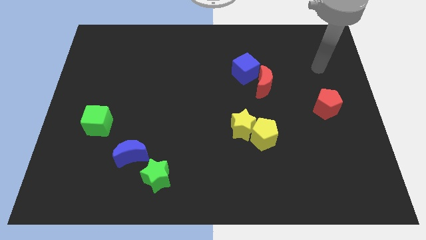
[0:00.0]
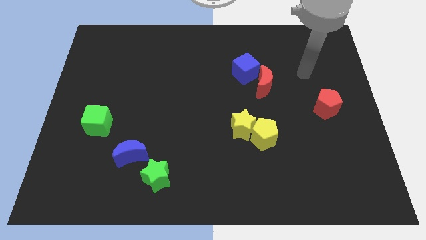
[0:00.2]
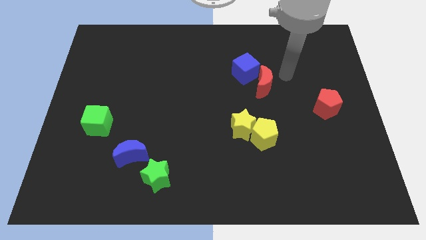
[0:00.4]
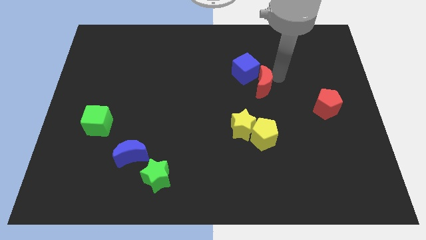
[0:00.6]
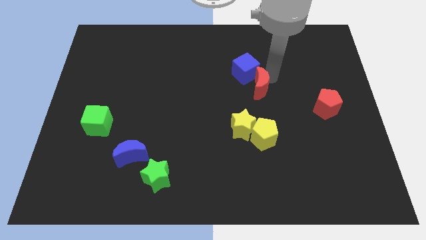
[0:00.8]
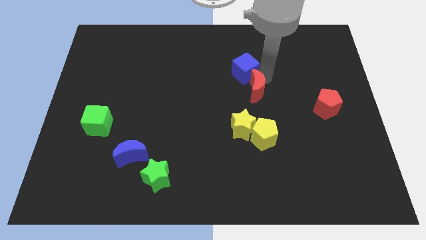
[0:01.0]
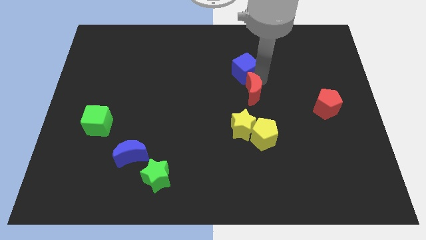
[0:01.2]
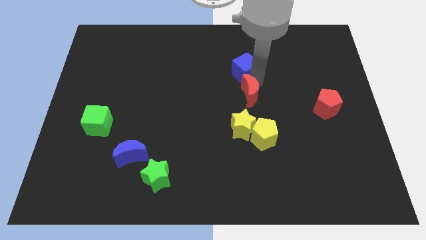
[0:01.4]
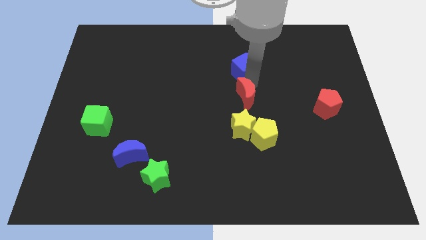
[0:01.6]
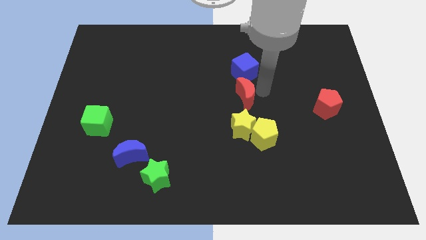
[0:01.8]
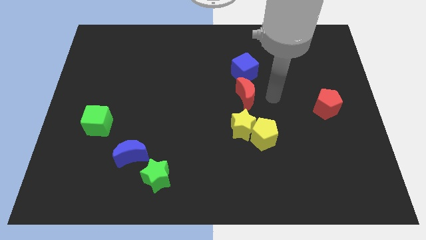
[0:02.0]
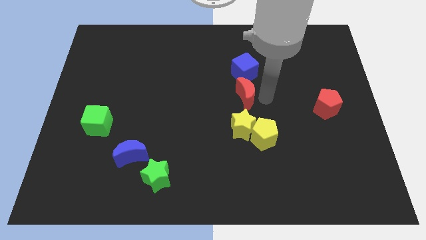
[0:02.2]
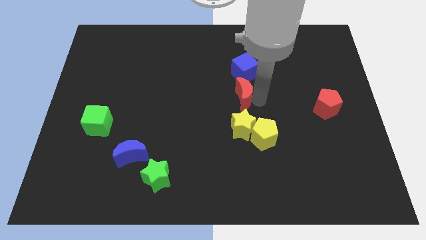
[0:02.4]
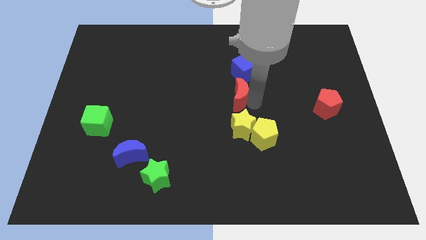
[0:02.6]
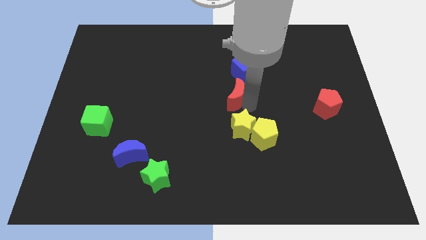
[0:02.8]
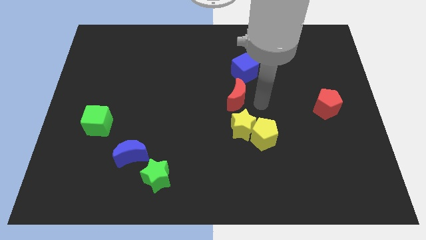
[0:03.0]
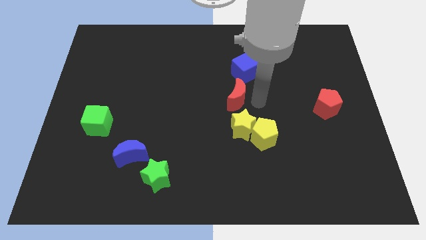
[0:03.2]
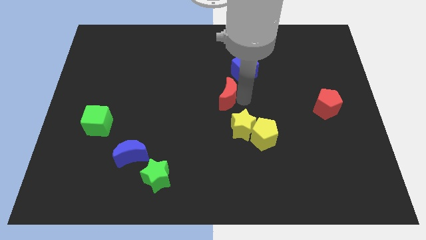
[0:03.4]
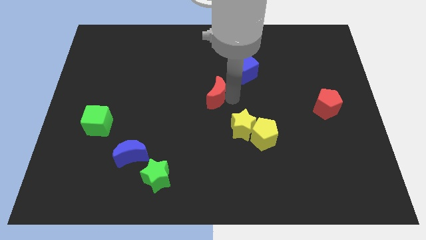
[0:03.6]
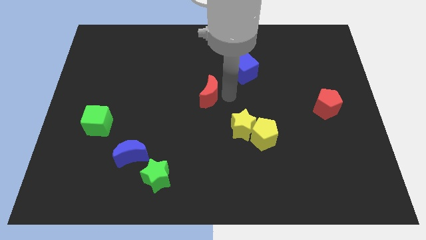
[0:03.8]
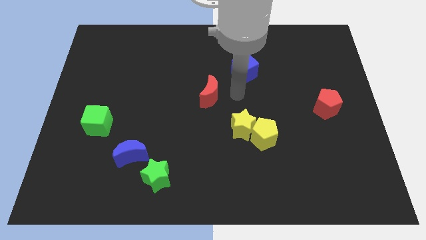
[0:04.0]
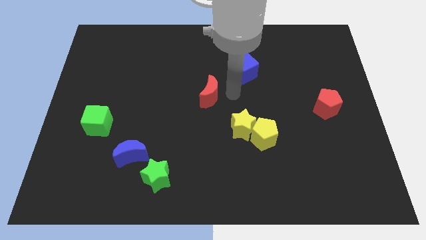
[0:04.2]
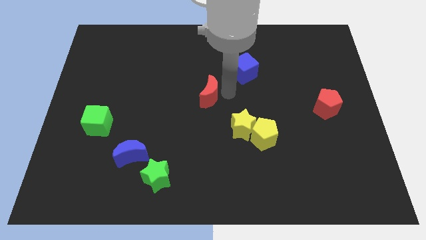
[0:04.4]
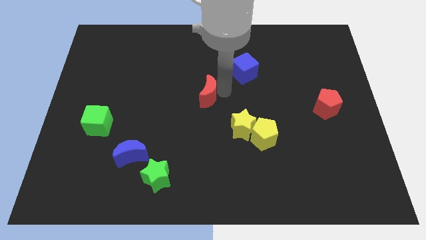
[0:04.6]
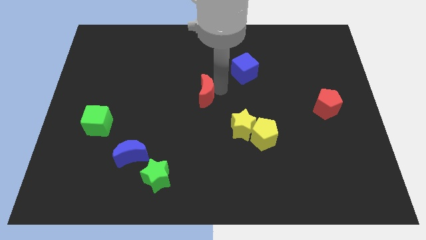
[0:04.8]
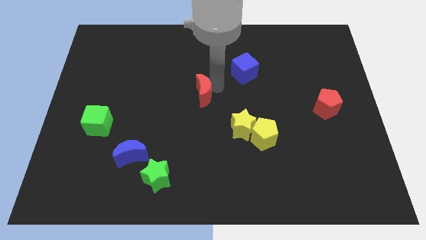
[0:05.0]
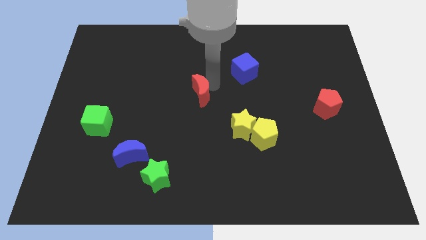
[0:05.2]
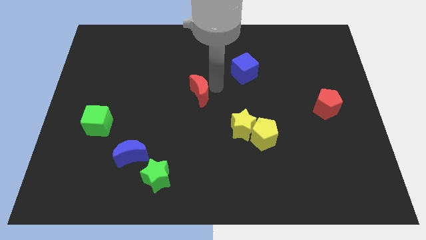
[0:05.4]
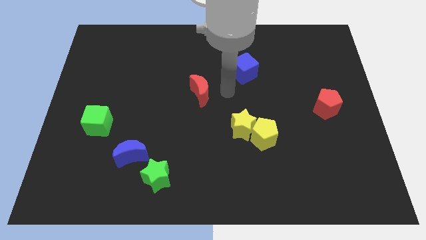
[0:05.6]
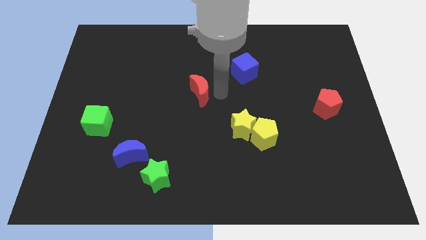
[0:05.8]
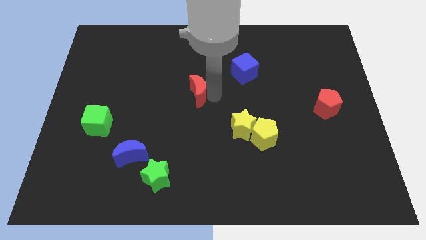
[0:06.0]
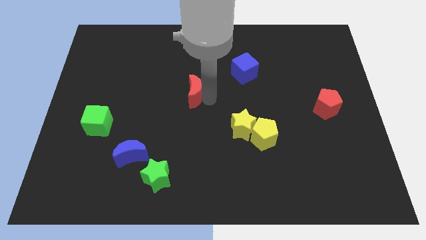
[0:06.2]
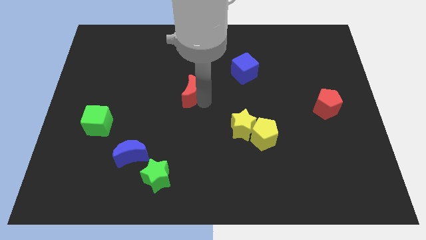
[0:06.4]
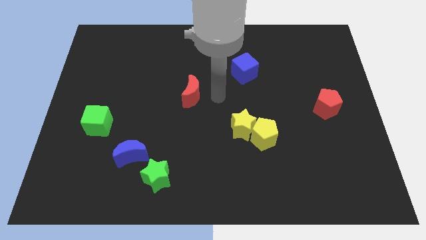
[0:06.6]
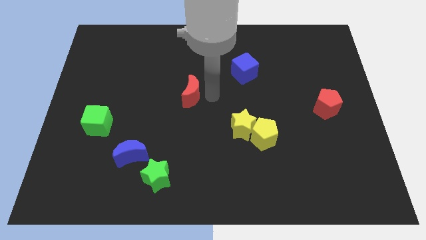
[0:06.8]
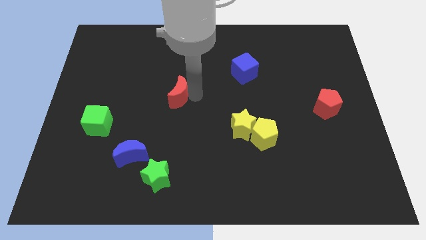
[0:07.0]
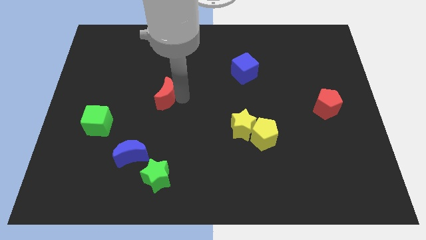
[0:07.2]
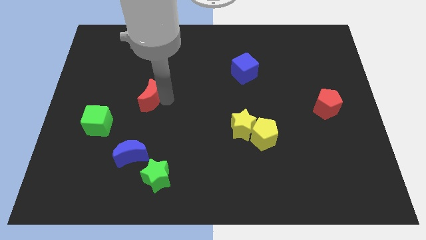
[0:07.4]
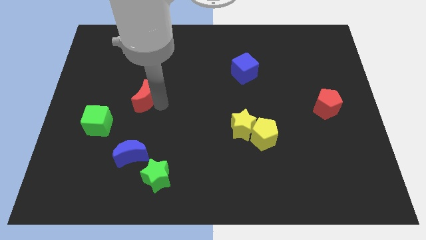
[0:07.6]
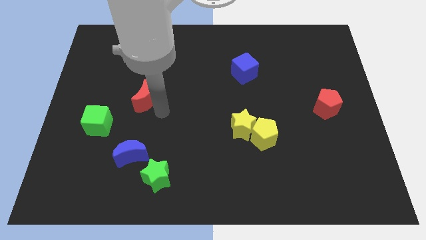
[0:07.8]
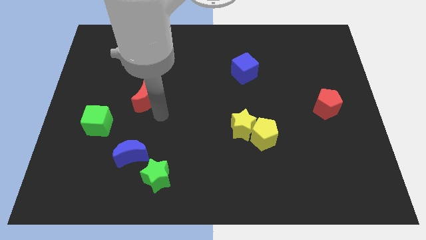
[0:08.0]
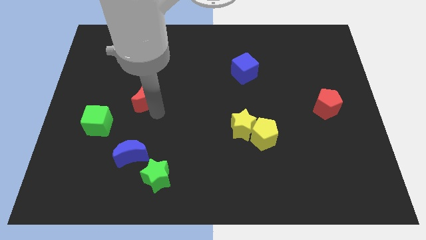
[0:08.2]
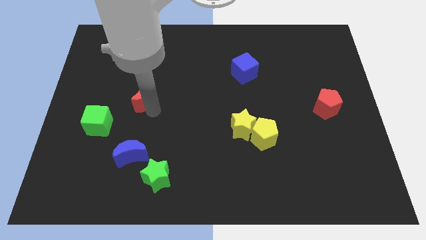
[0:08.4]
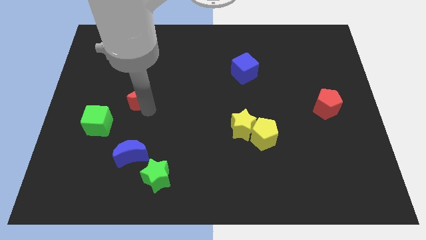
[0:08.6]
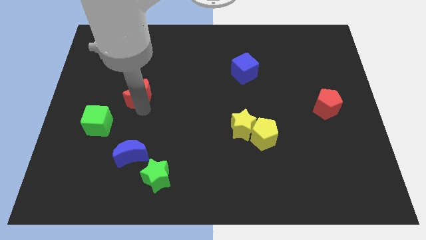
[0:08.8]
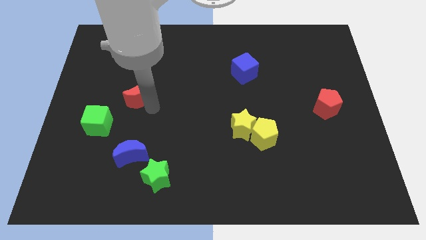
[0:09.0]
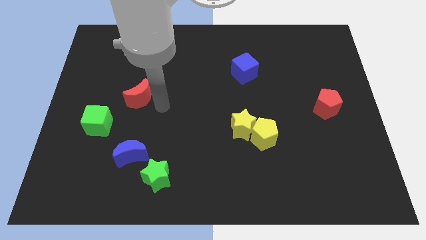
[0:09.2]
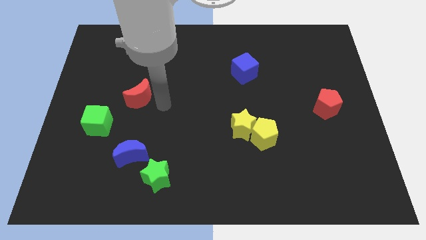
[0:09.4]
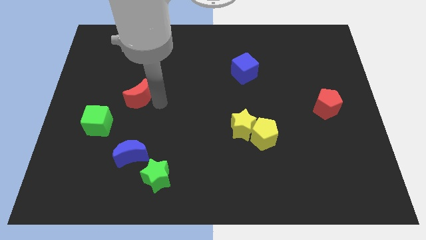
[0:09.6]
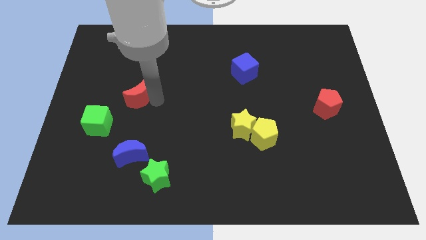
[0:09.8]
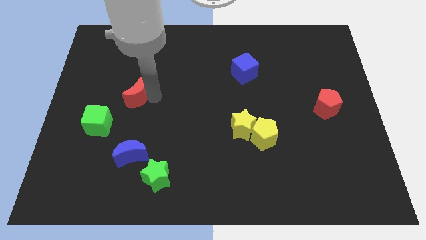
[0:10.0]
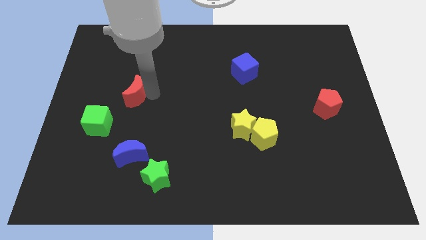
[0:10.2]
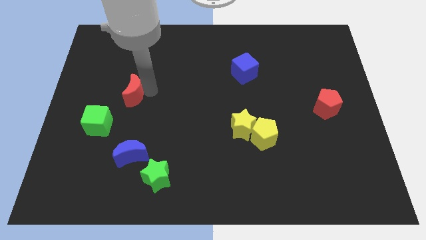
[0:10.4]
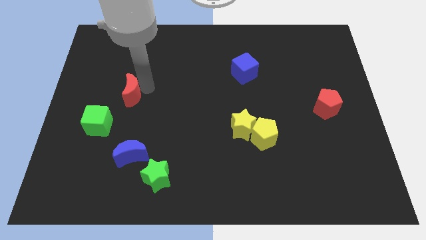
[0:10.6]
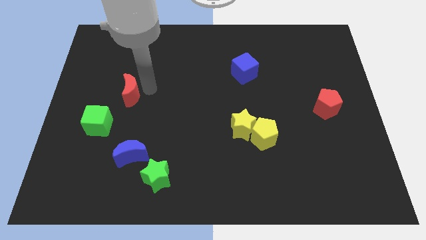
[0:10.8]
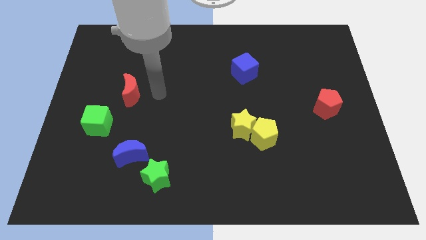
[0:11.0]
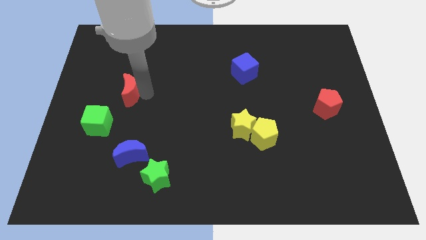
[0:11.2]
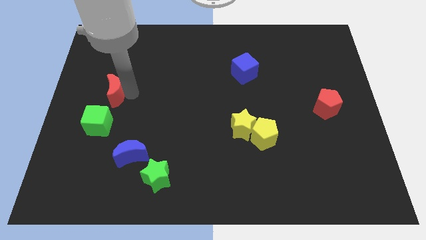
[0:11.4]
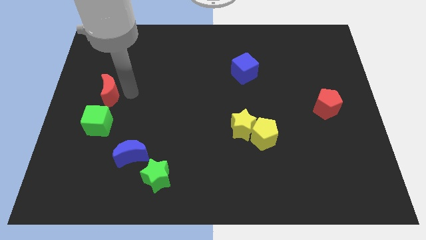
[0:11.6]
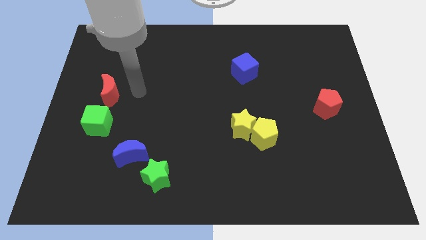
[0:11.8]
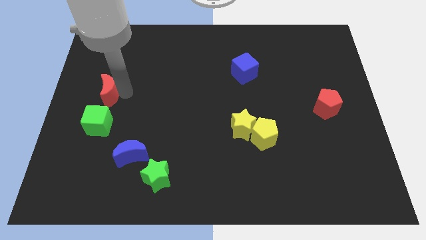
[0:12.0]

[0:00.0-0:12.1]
put the red moon to the left side

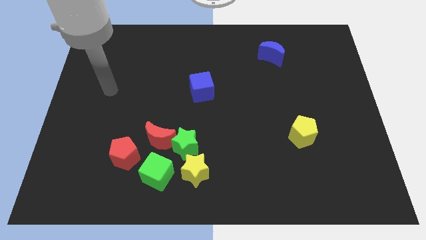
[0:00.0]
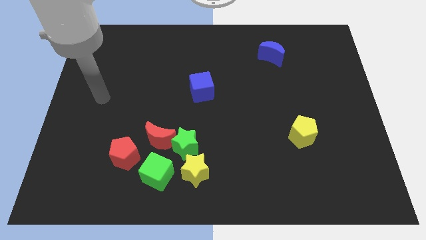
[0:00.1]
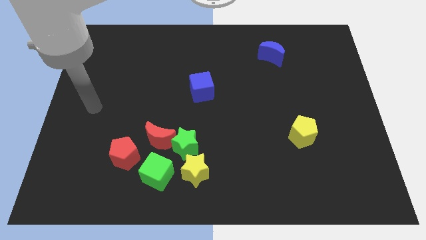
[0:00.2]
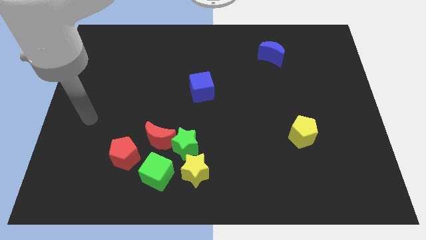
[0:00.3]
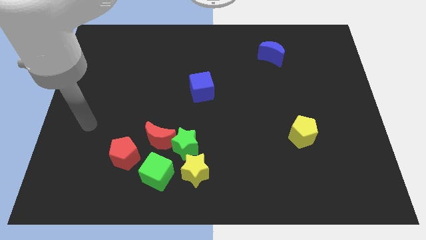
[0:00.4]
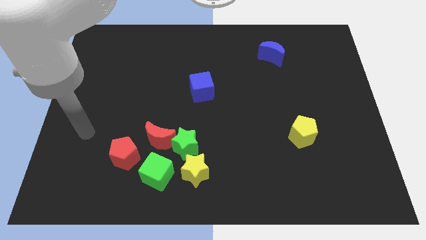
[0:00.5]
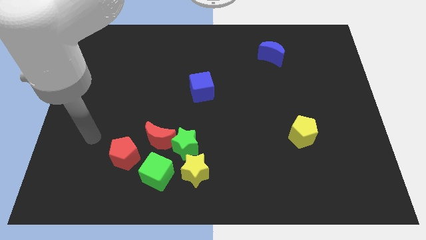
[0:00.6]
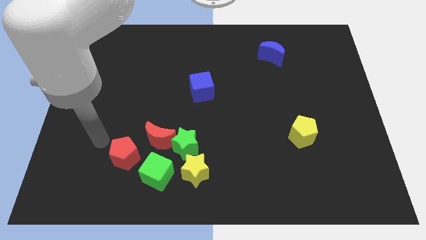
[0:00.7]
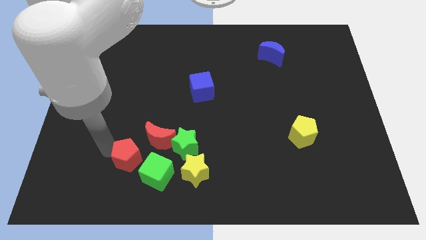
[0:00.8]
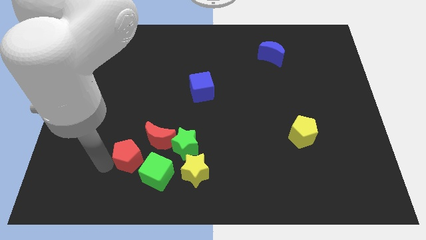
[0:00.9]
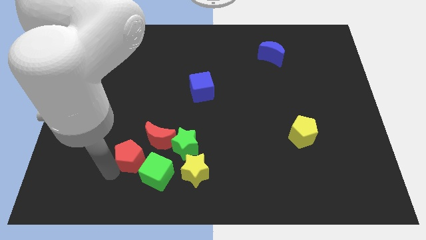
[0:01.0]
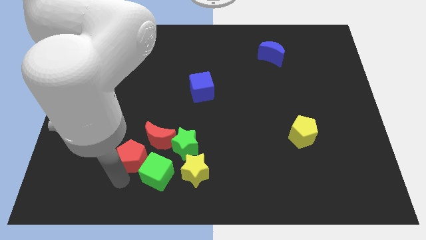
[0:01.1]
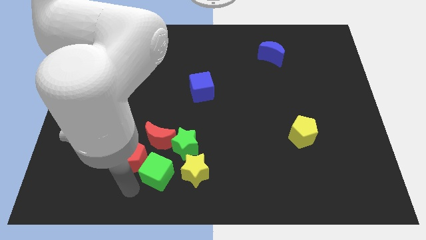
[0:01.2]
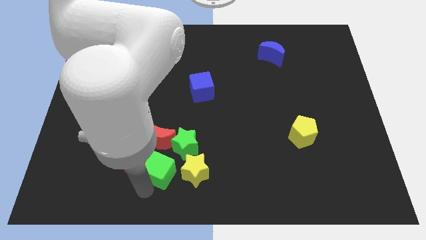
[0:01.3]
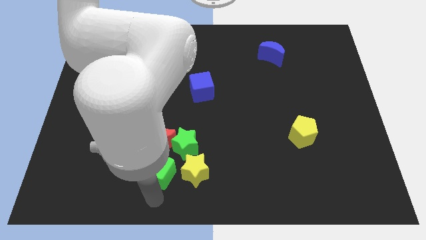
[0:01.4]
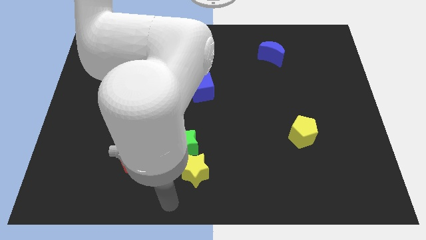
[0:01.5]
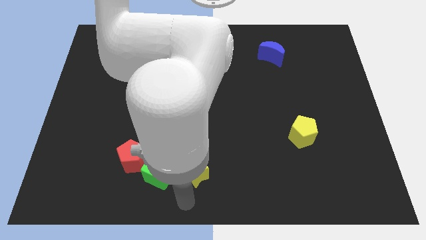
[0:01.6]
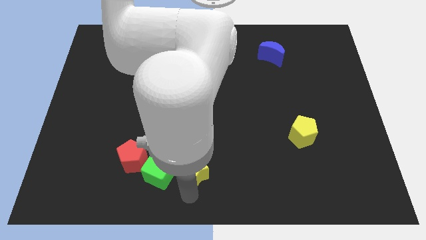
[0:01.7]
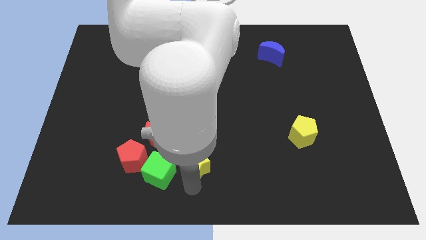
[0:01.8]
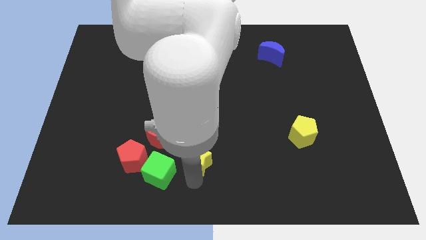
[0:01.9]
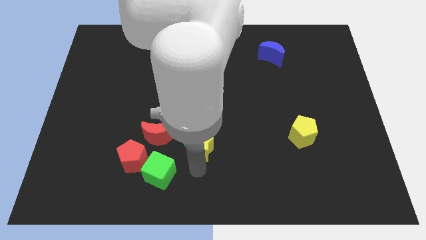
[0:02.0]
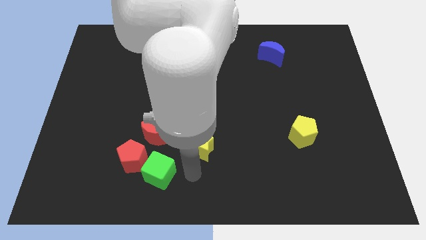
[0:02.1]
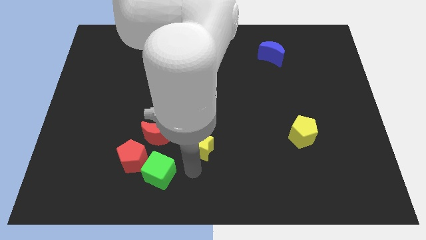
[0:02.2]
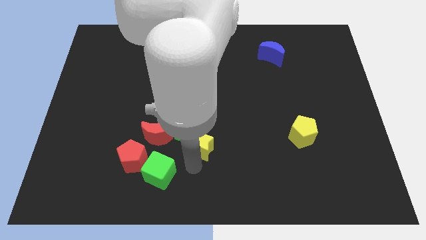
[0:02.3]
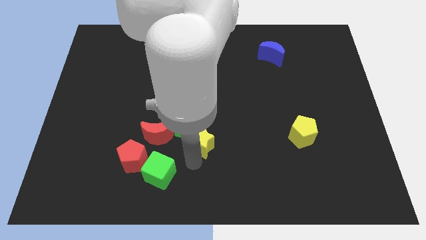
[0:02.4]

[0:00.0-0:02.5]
put the yellow star to the center of the board
